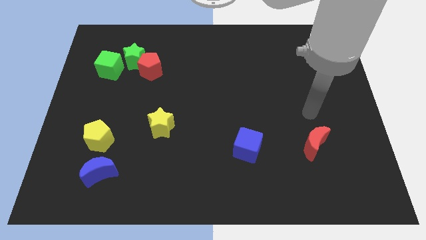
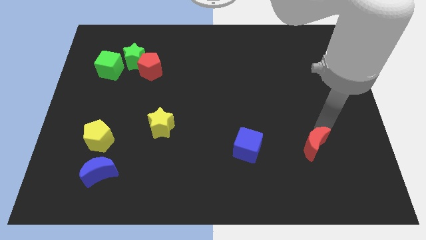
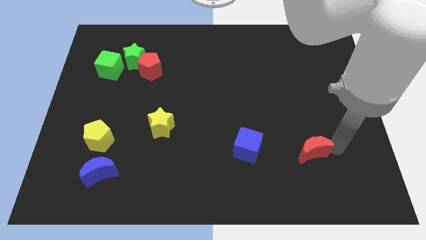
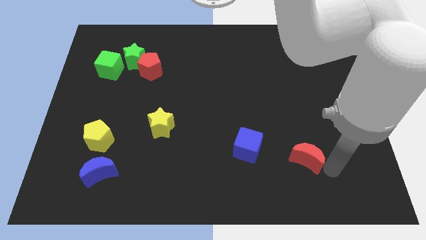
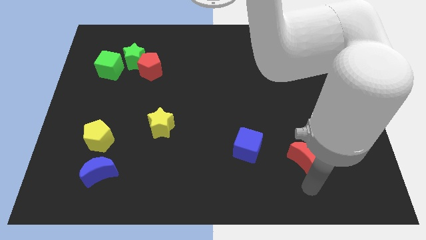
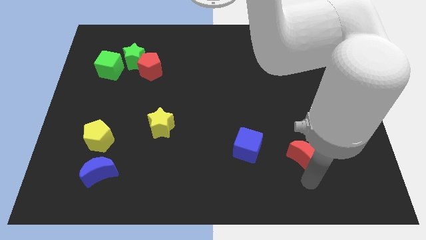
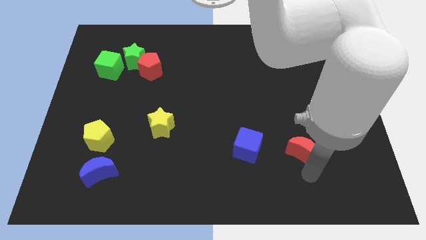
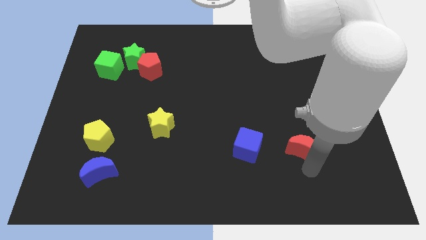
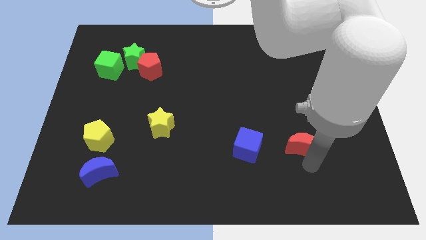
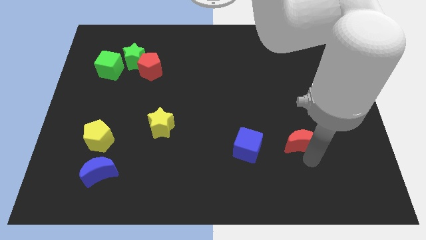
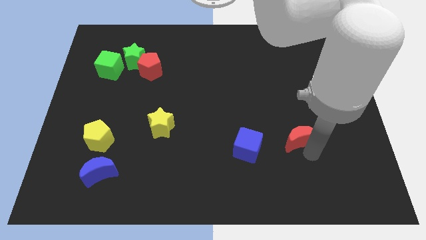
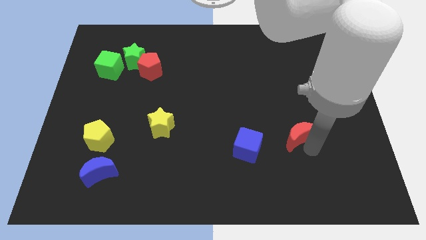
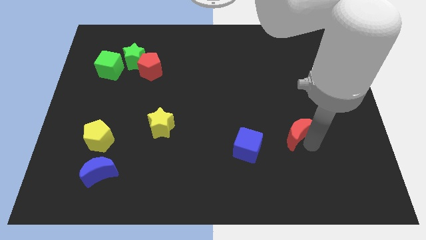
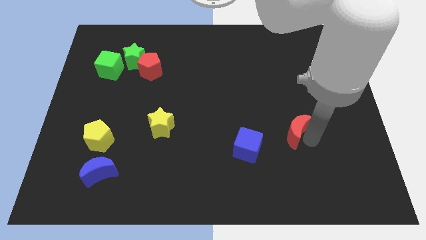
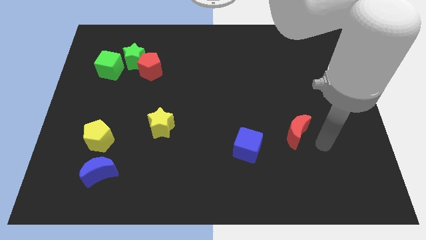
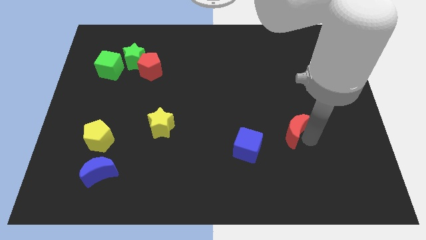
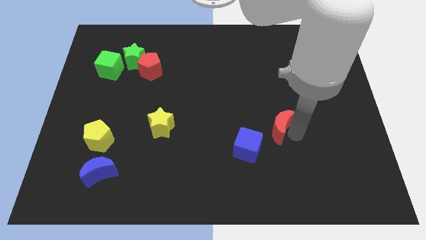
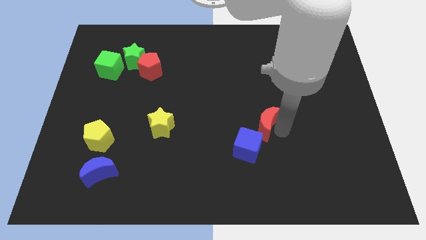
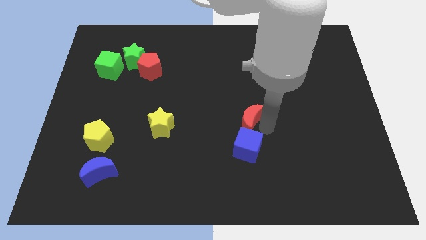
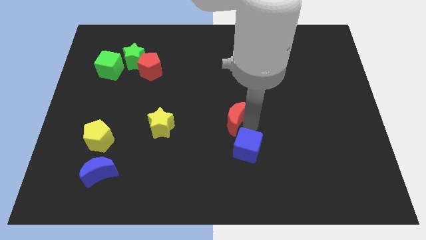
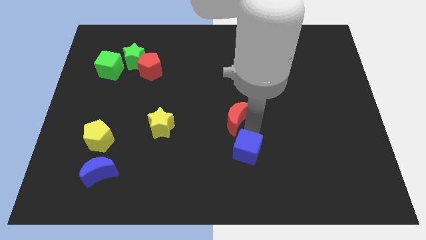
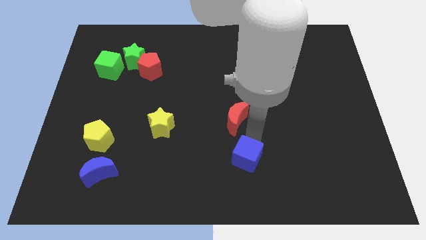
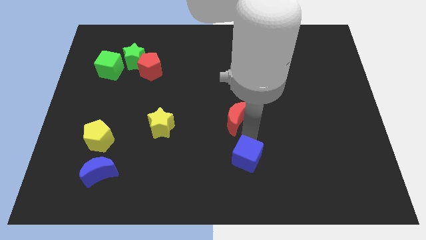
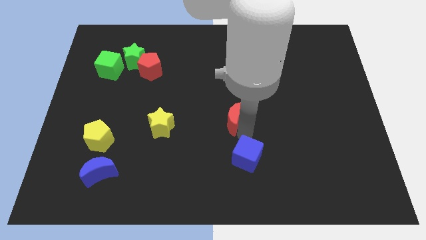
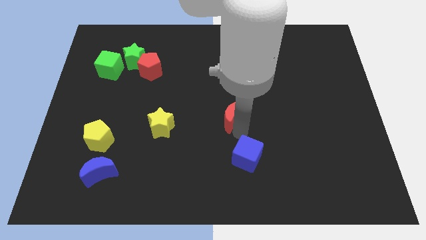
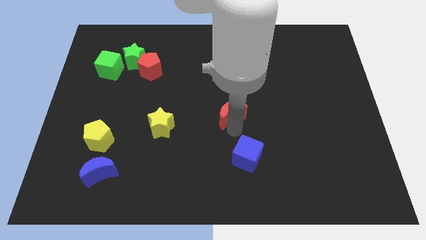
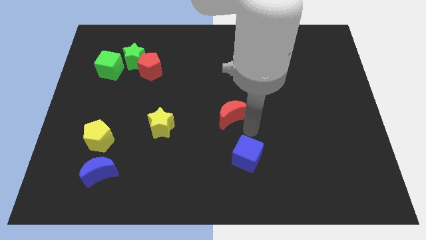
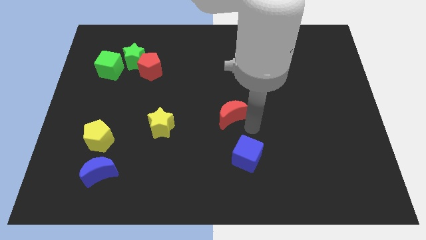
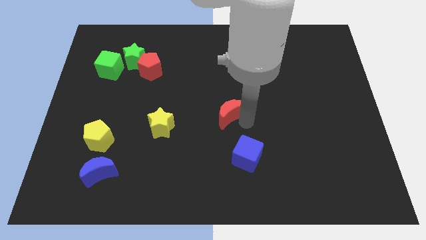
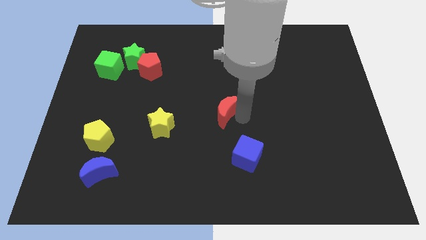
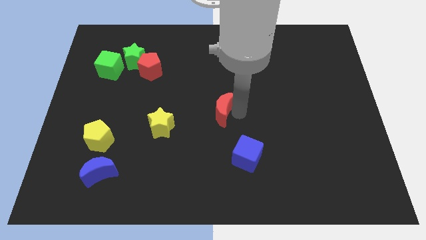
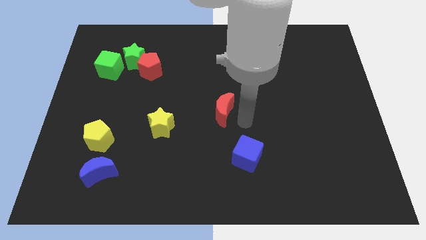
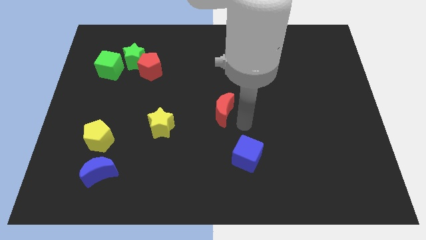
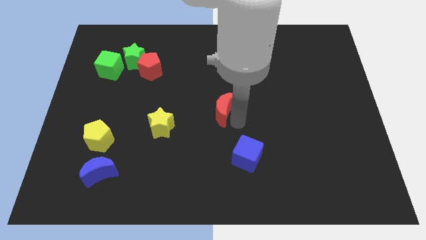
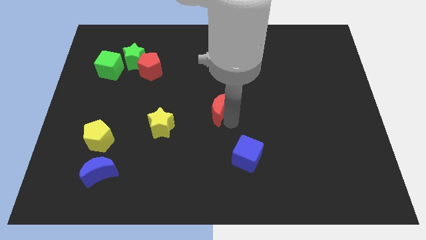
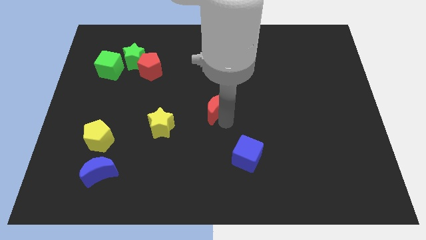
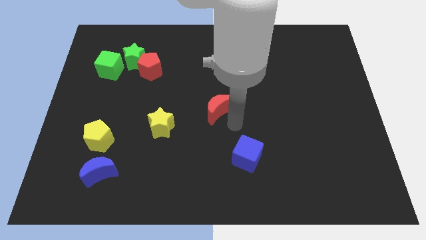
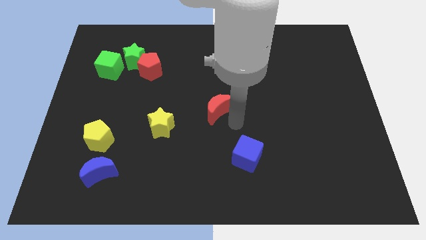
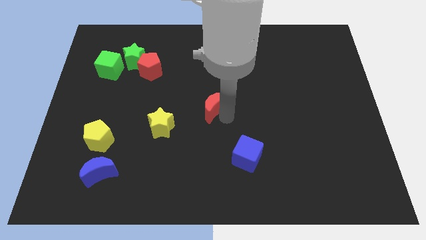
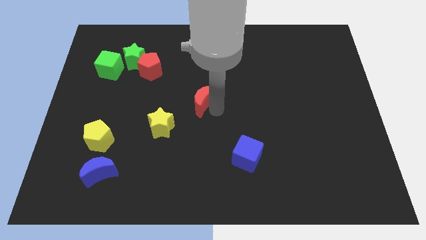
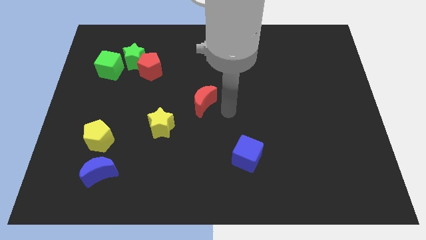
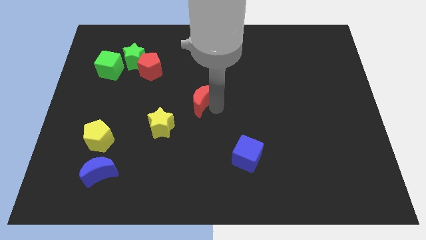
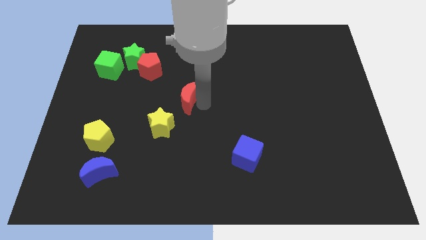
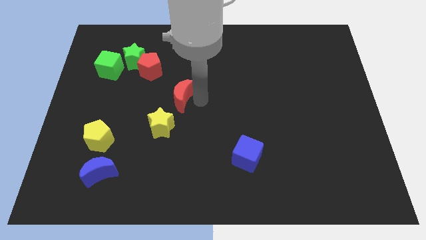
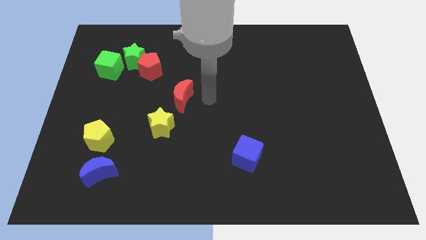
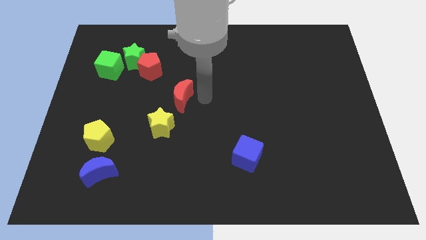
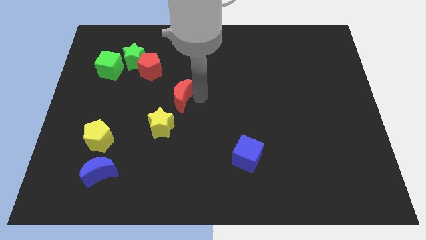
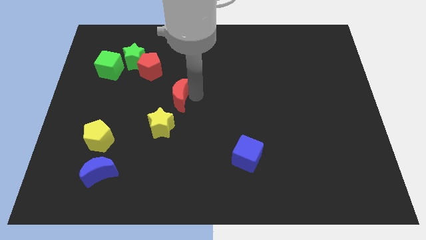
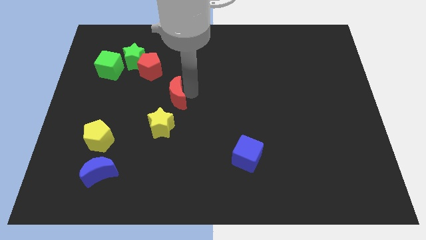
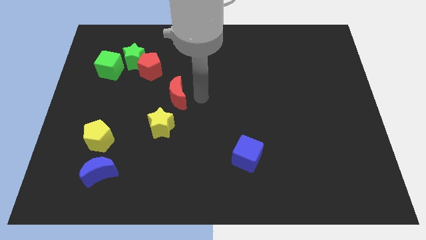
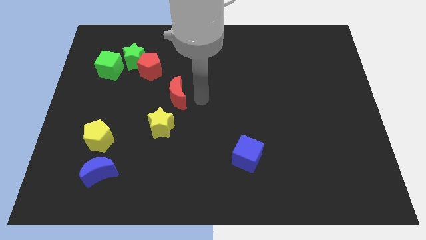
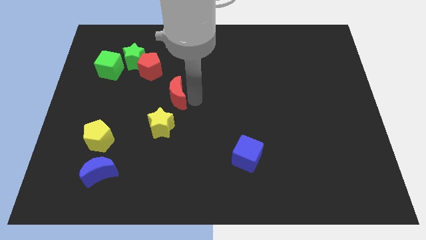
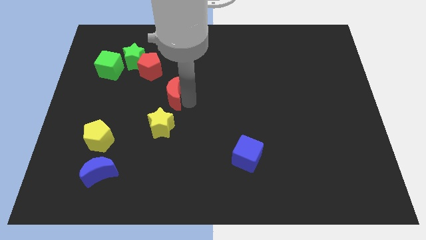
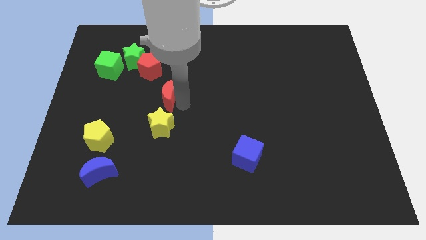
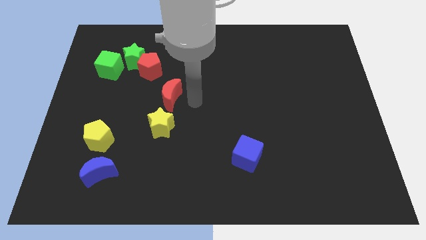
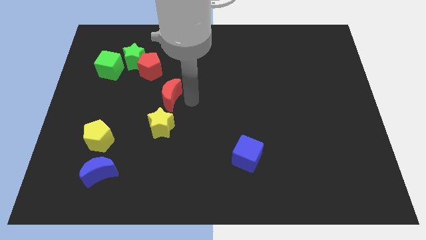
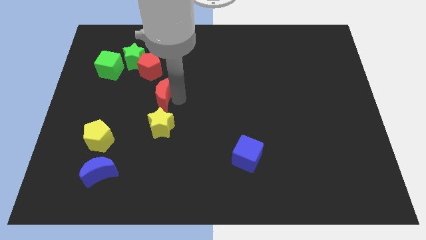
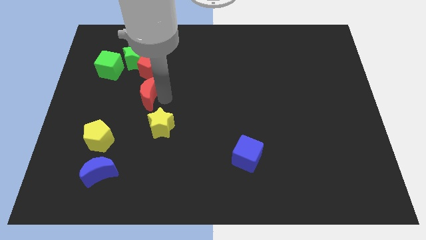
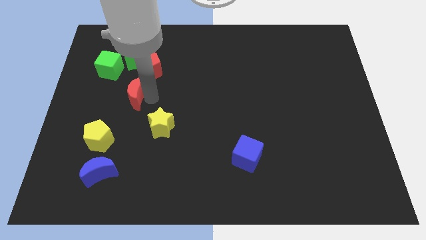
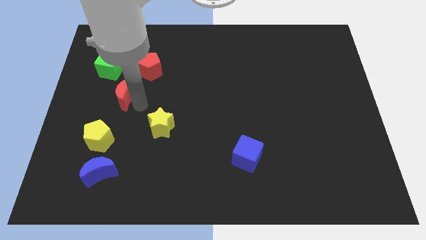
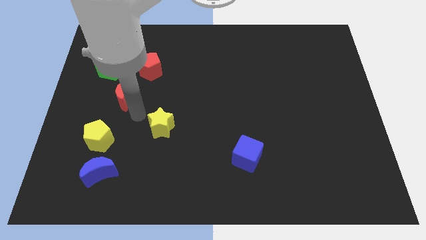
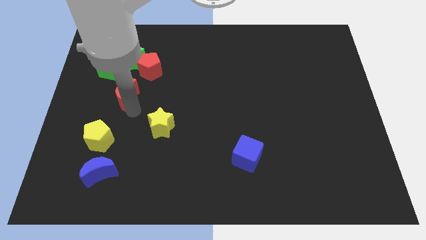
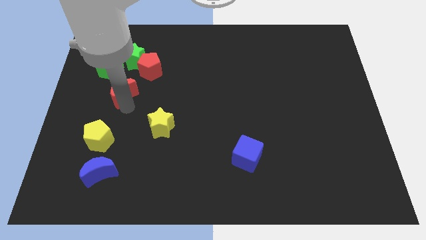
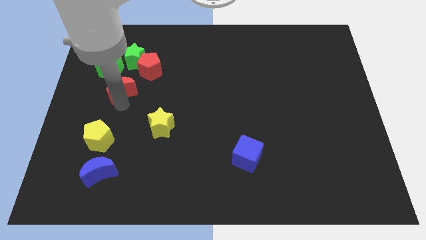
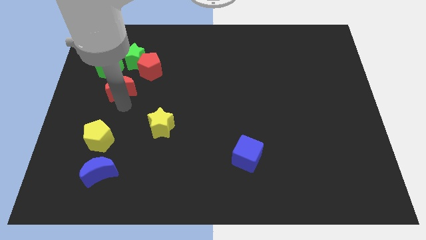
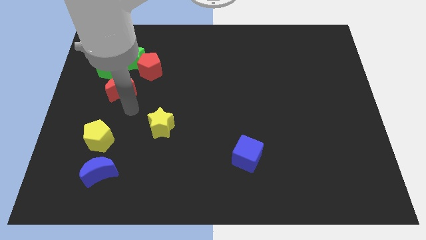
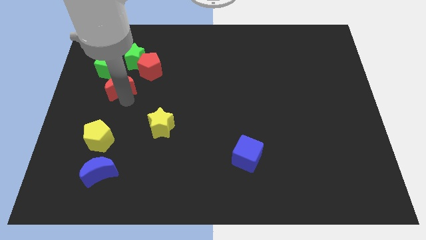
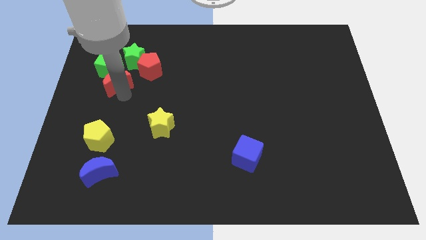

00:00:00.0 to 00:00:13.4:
push the red moon to the bottom left of the green star
